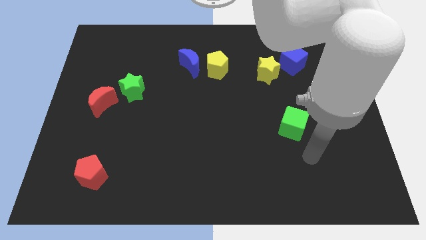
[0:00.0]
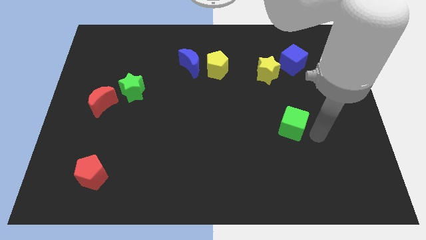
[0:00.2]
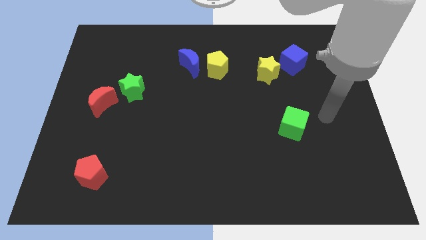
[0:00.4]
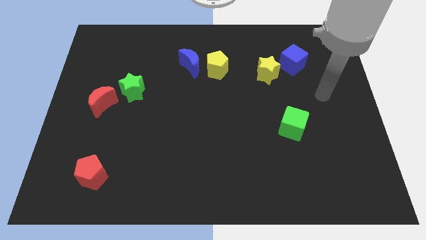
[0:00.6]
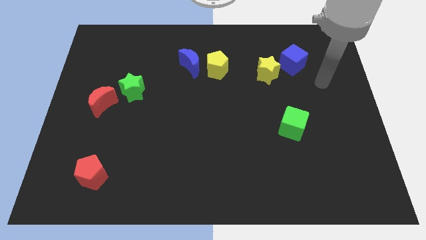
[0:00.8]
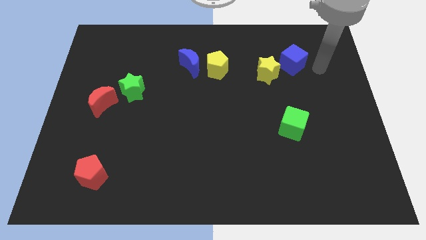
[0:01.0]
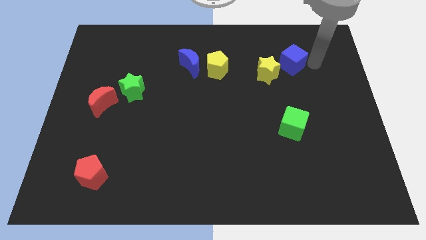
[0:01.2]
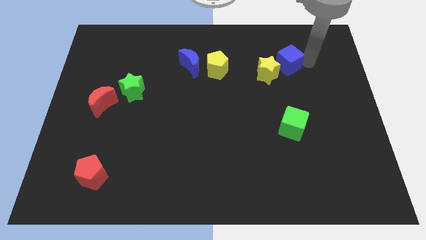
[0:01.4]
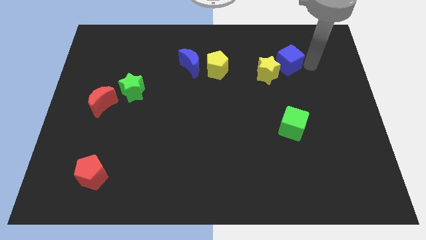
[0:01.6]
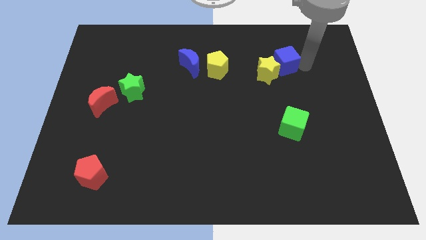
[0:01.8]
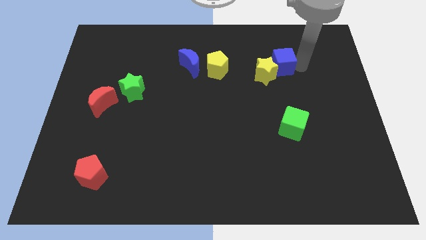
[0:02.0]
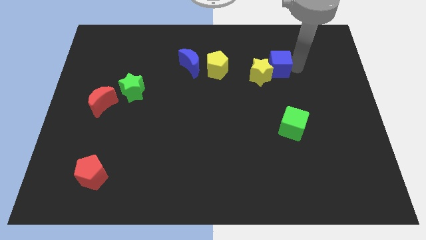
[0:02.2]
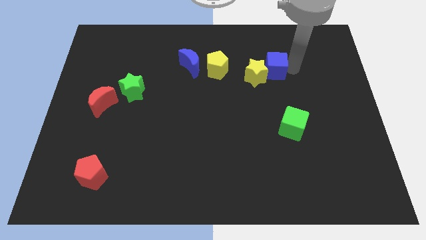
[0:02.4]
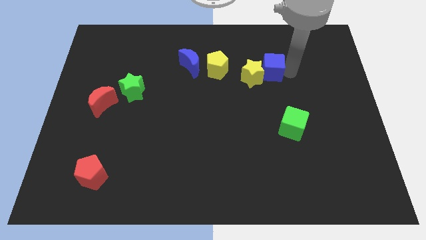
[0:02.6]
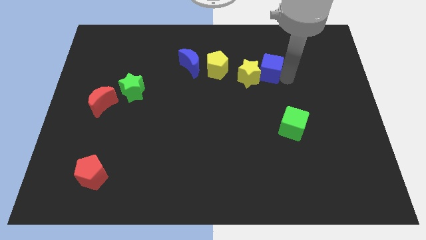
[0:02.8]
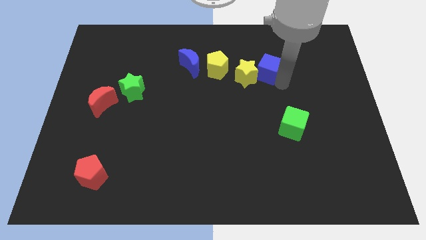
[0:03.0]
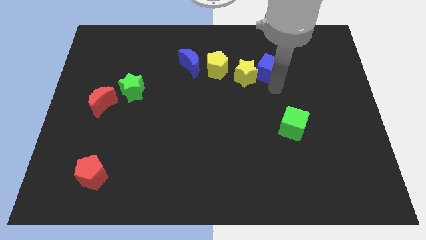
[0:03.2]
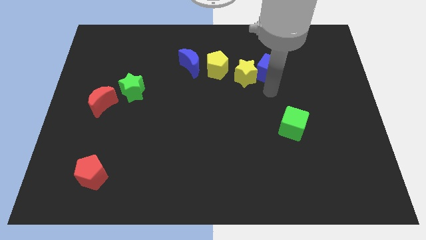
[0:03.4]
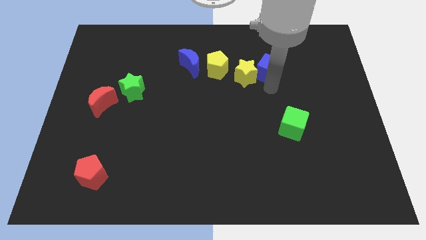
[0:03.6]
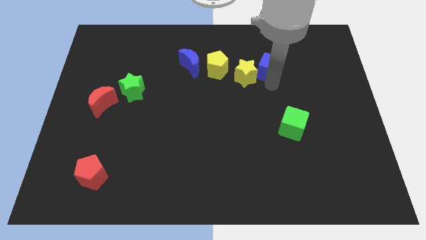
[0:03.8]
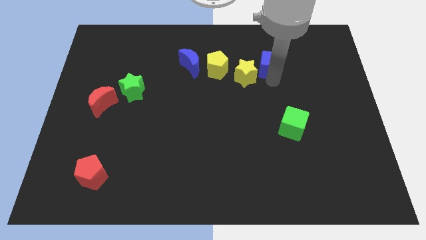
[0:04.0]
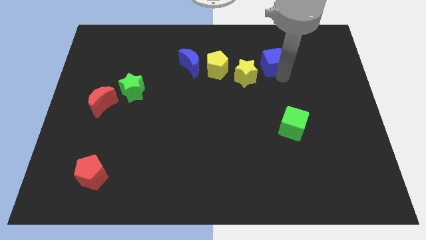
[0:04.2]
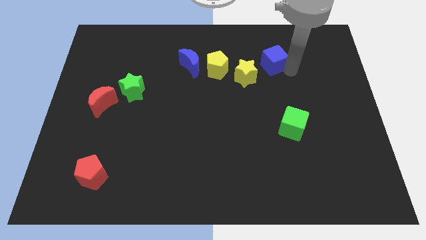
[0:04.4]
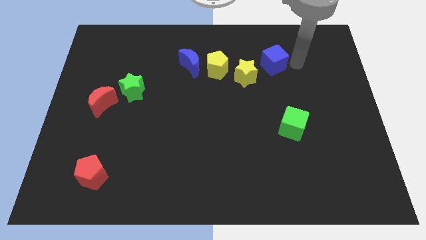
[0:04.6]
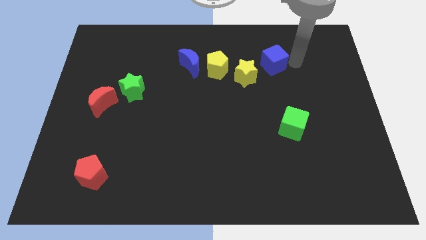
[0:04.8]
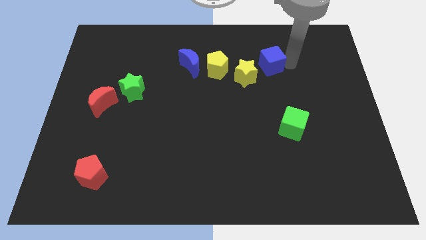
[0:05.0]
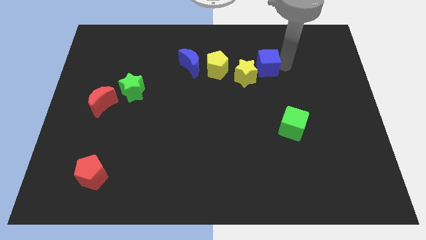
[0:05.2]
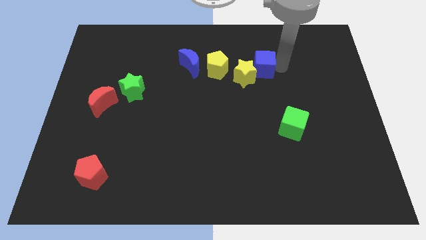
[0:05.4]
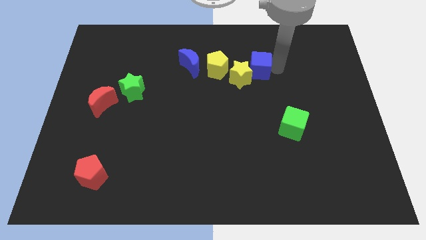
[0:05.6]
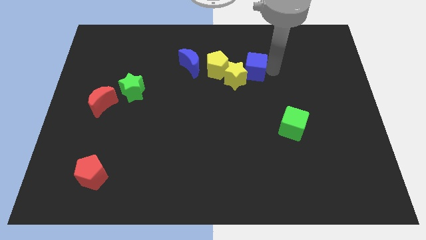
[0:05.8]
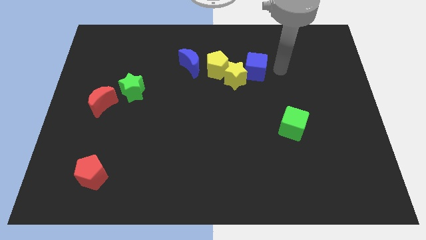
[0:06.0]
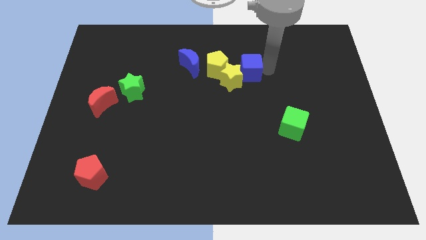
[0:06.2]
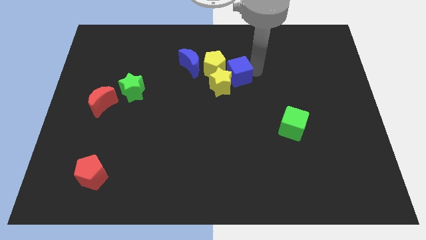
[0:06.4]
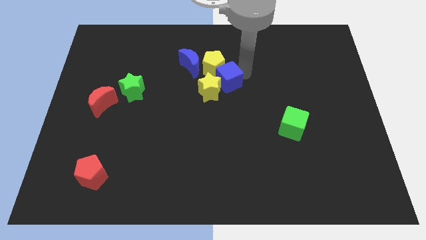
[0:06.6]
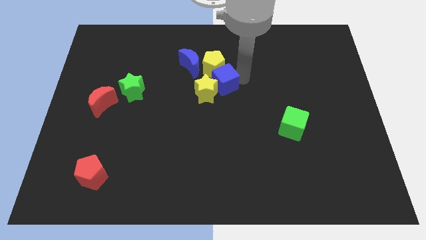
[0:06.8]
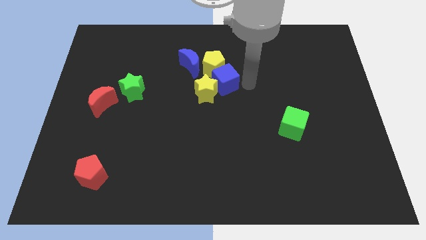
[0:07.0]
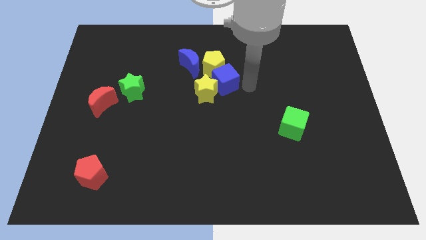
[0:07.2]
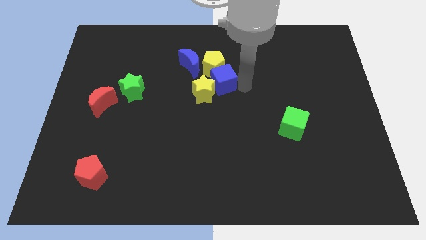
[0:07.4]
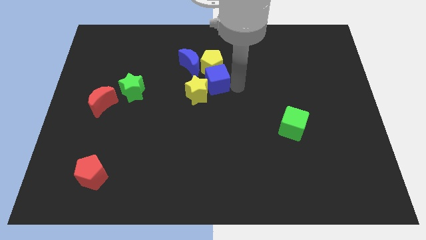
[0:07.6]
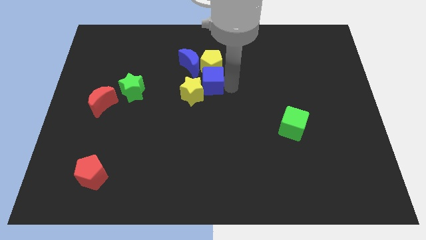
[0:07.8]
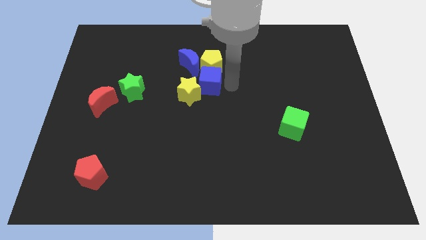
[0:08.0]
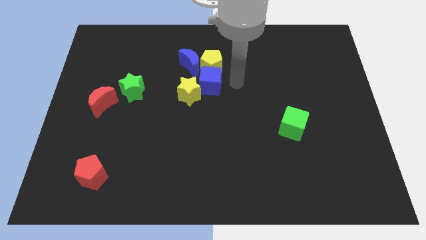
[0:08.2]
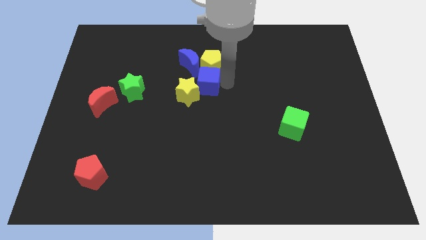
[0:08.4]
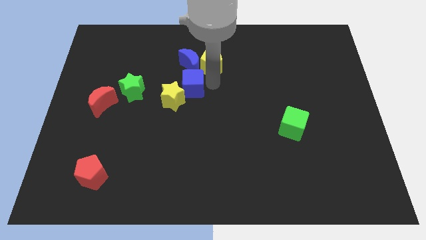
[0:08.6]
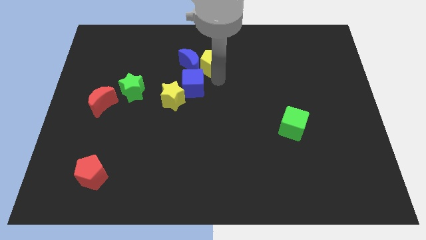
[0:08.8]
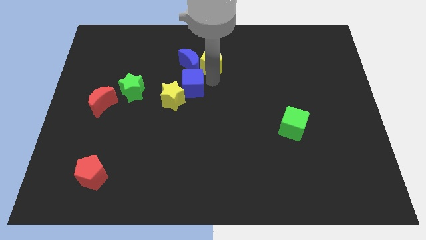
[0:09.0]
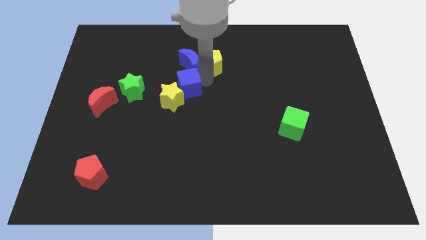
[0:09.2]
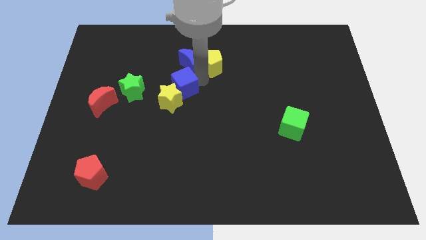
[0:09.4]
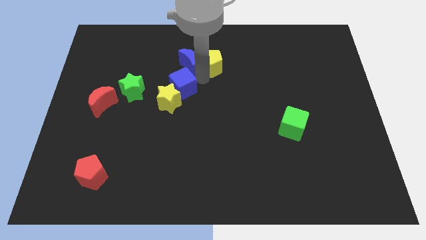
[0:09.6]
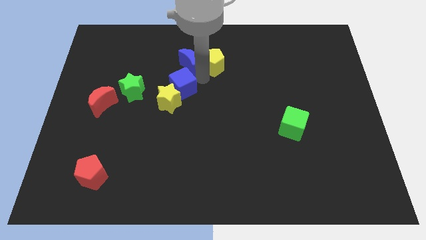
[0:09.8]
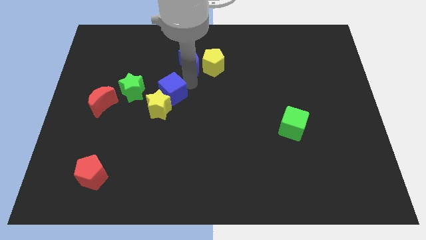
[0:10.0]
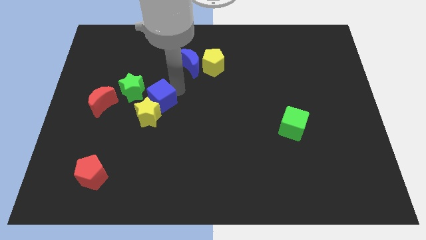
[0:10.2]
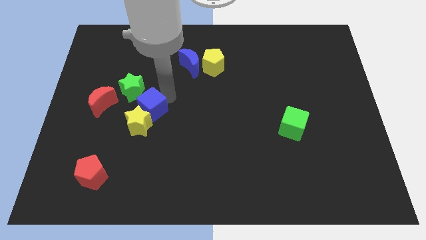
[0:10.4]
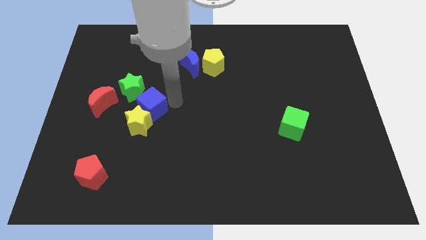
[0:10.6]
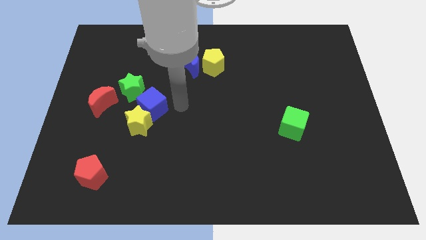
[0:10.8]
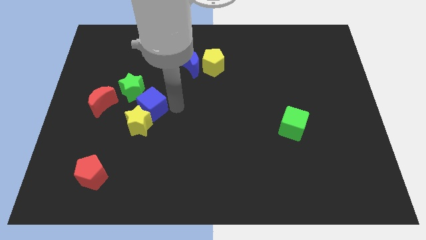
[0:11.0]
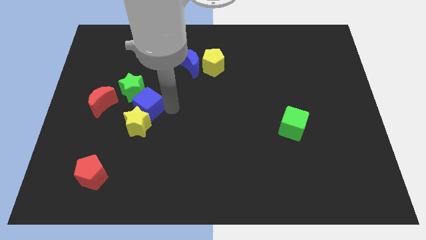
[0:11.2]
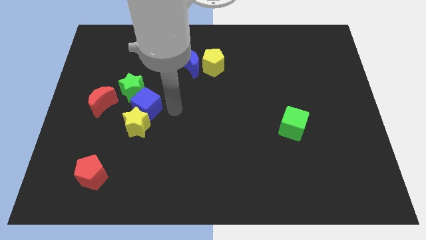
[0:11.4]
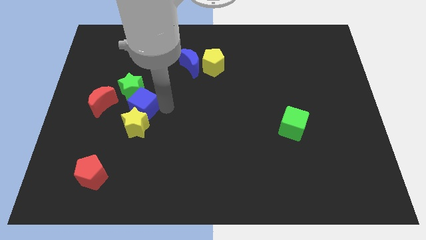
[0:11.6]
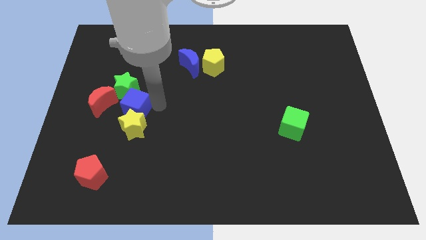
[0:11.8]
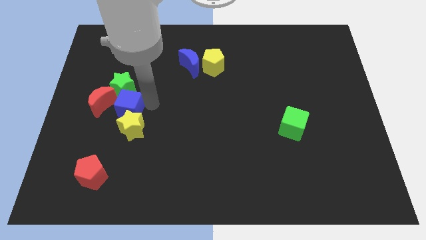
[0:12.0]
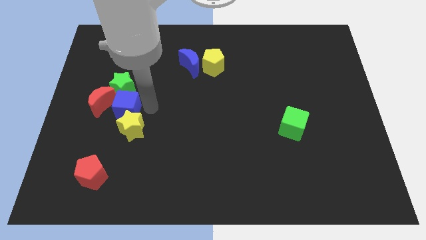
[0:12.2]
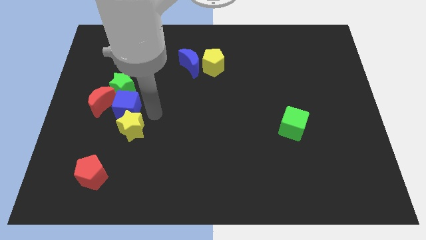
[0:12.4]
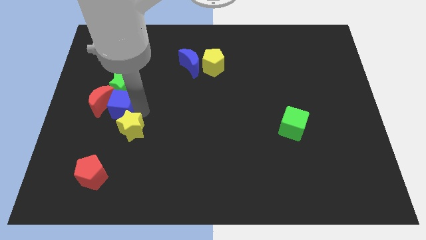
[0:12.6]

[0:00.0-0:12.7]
move the blue cube next to the red moon

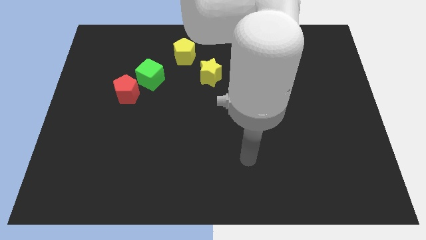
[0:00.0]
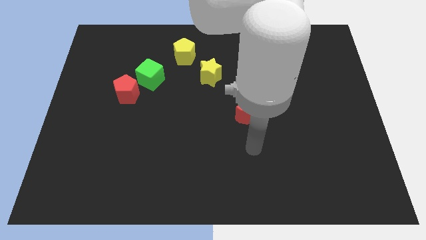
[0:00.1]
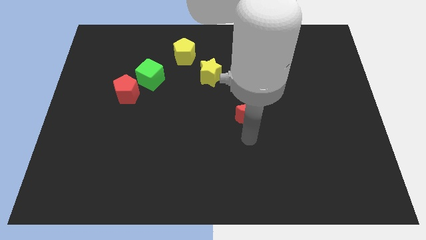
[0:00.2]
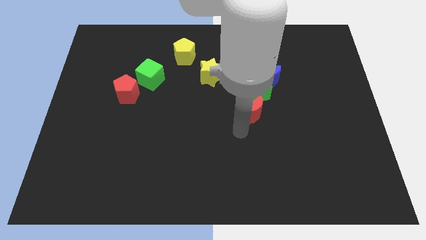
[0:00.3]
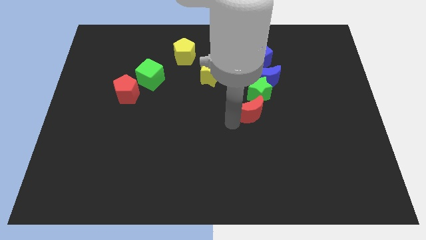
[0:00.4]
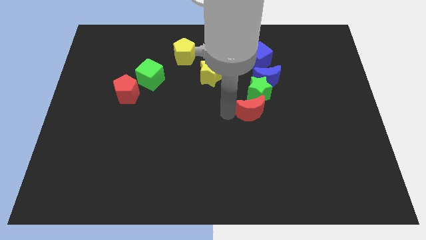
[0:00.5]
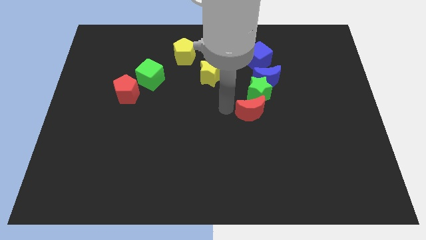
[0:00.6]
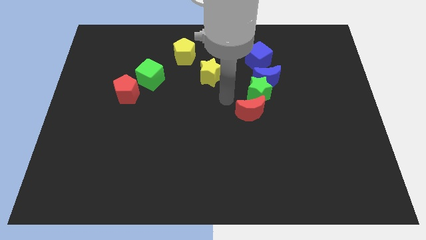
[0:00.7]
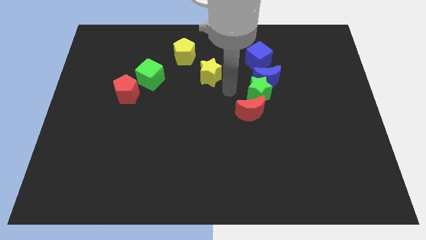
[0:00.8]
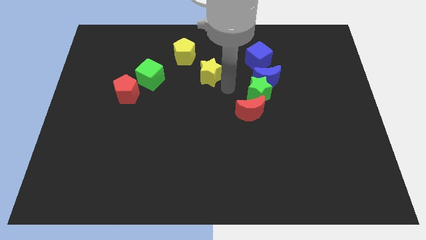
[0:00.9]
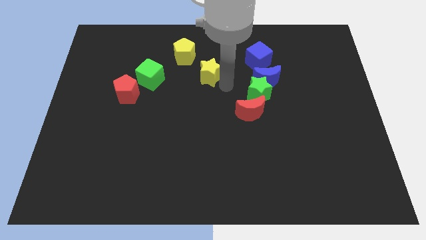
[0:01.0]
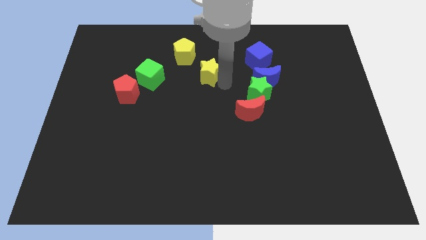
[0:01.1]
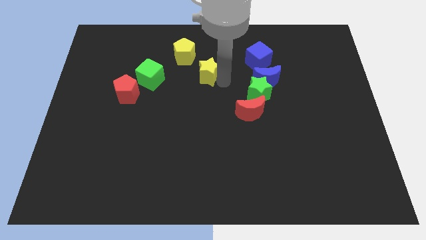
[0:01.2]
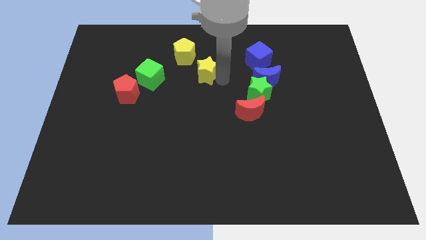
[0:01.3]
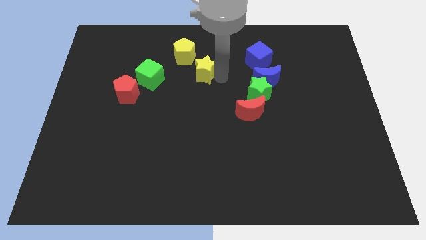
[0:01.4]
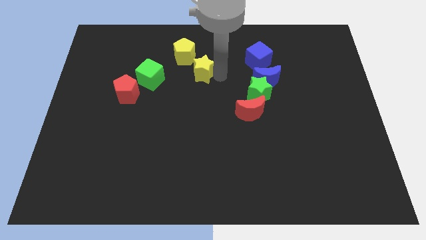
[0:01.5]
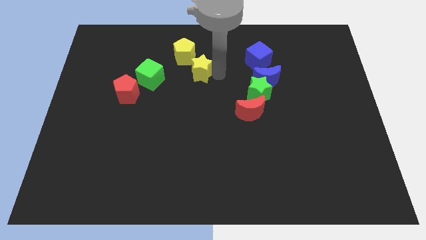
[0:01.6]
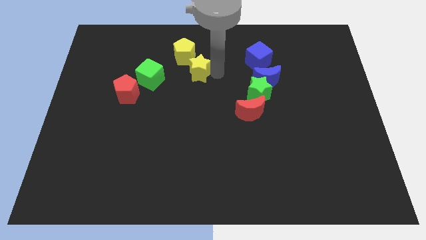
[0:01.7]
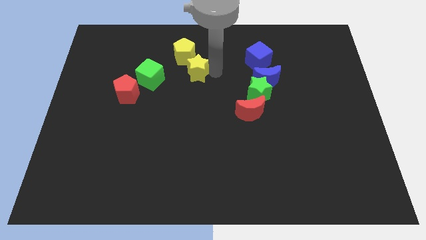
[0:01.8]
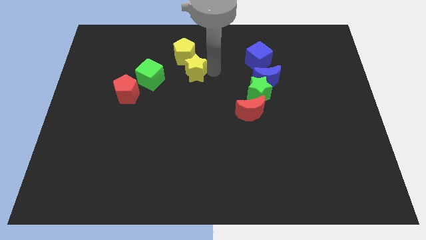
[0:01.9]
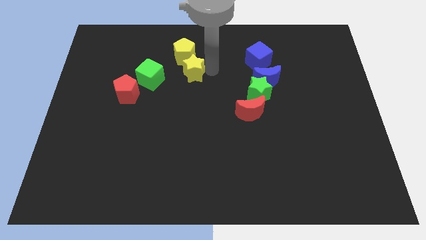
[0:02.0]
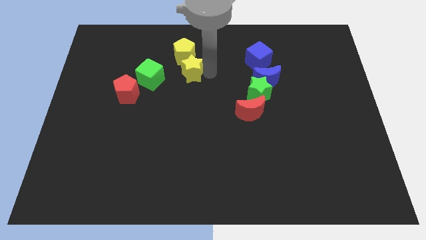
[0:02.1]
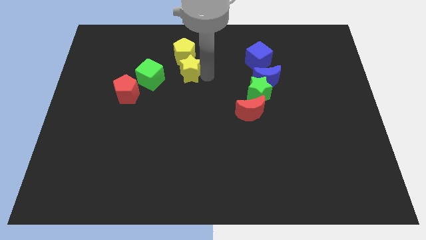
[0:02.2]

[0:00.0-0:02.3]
slide the yellow star next to the yellow pentagon
